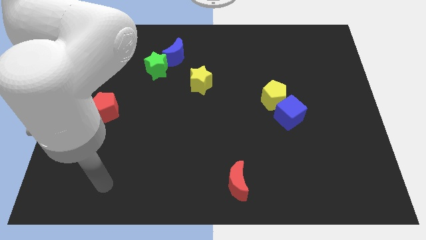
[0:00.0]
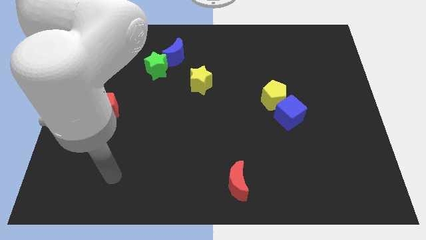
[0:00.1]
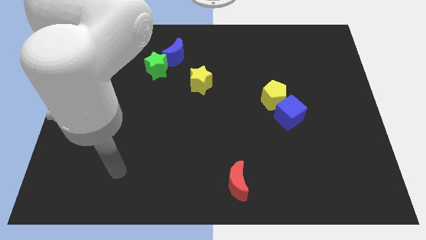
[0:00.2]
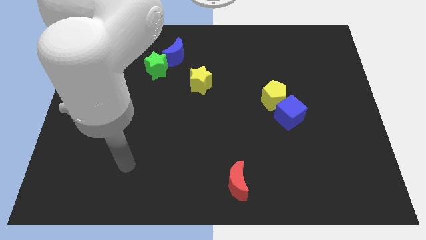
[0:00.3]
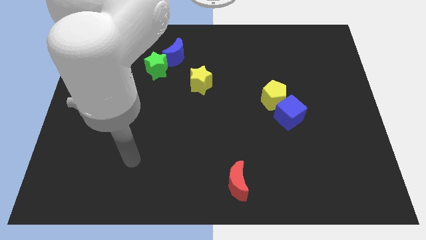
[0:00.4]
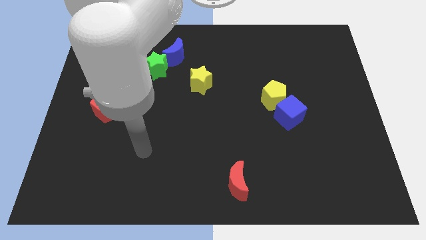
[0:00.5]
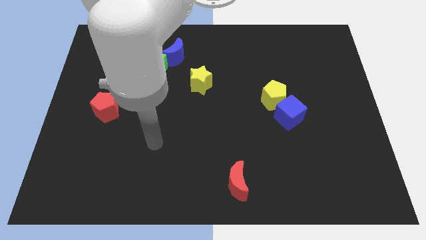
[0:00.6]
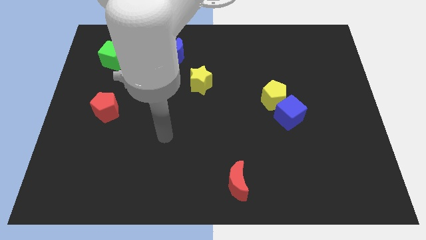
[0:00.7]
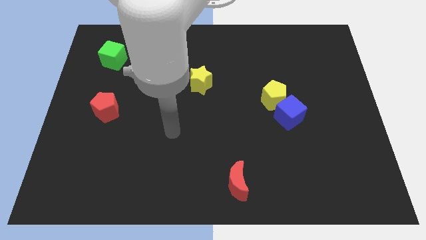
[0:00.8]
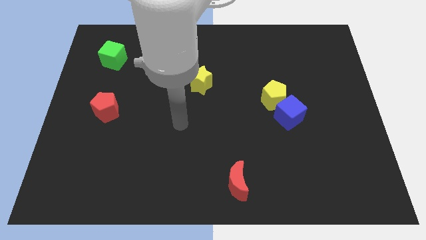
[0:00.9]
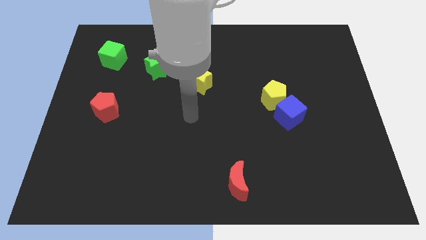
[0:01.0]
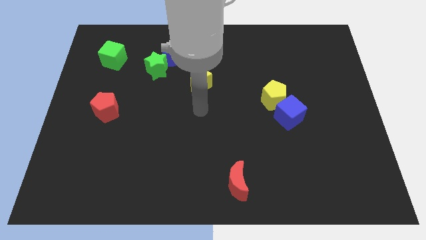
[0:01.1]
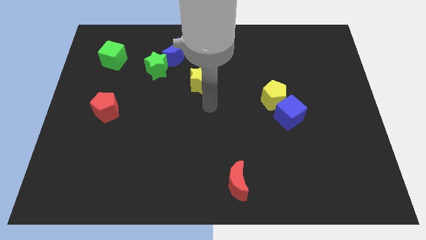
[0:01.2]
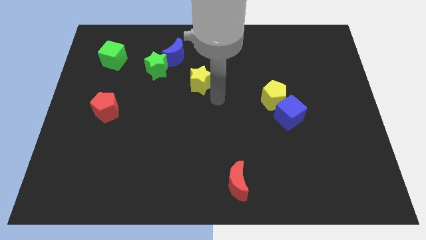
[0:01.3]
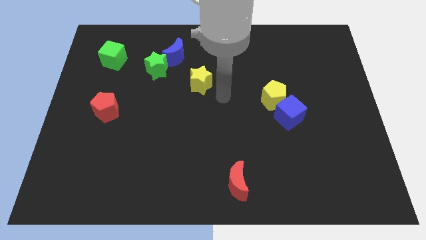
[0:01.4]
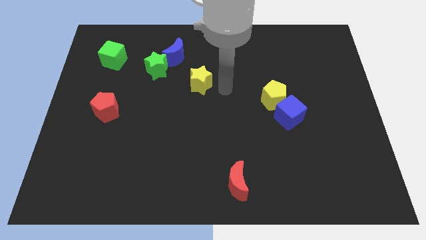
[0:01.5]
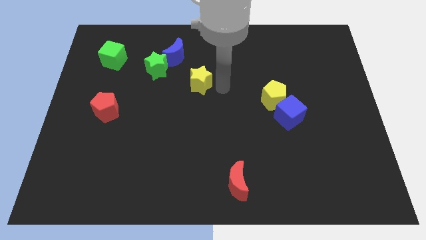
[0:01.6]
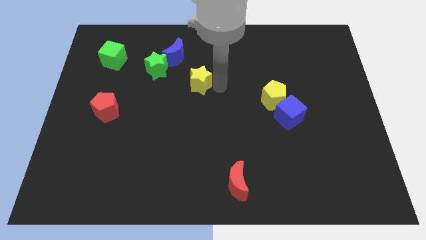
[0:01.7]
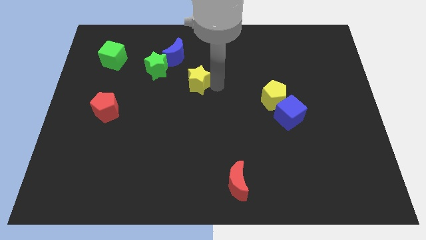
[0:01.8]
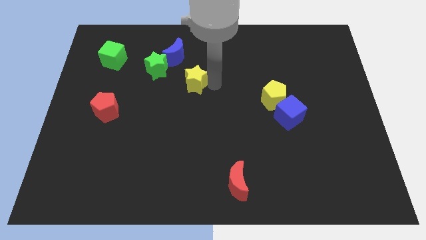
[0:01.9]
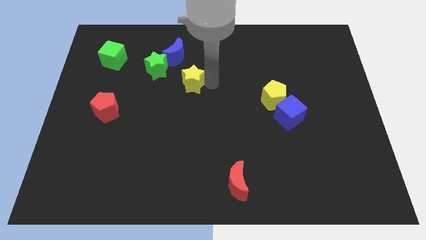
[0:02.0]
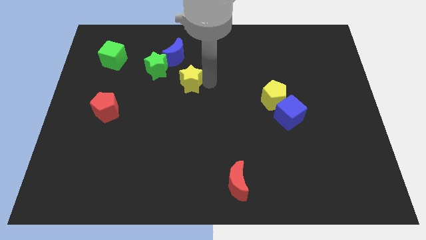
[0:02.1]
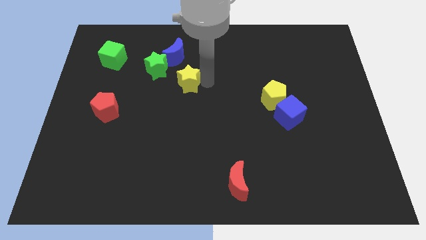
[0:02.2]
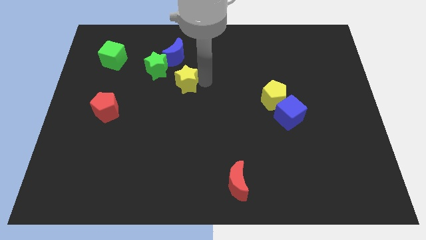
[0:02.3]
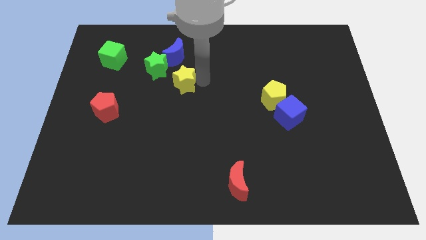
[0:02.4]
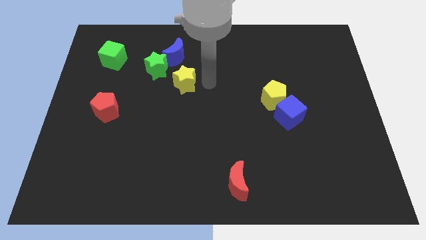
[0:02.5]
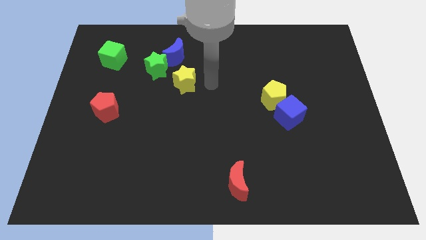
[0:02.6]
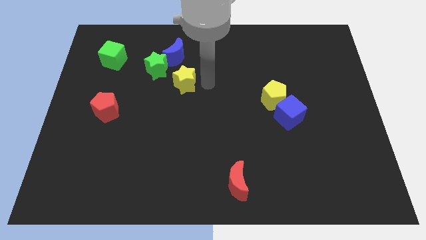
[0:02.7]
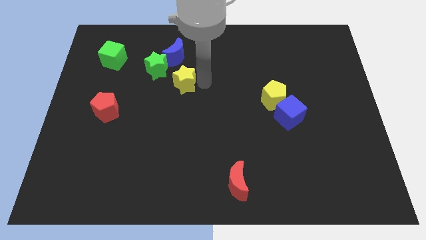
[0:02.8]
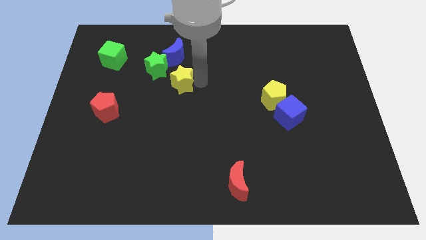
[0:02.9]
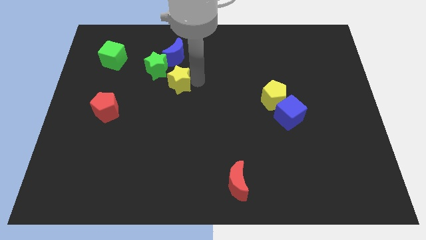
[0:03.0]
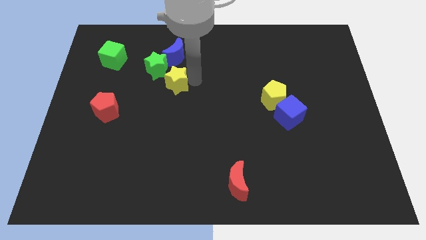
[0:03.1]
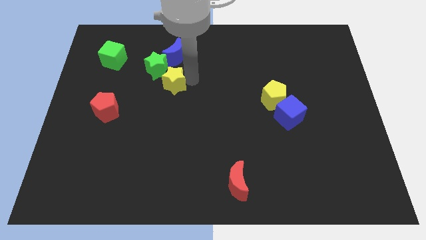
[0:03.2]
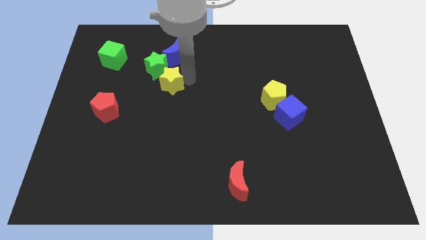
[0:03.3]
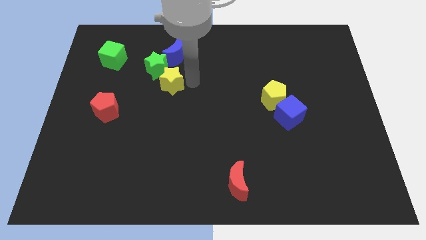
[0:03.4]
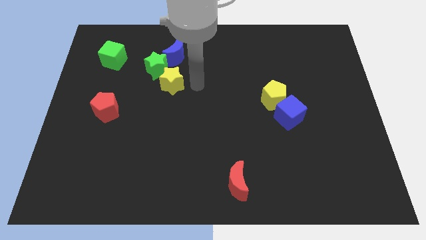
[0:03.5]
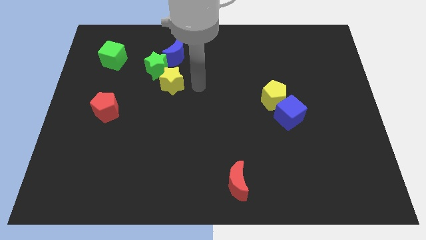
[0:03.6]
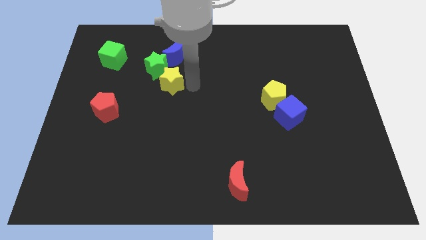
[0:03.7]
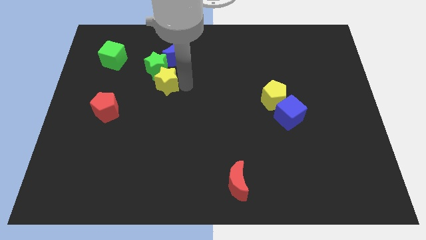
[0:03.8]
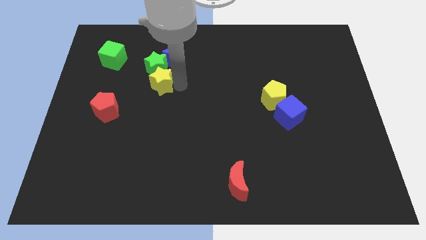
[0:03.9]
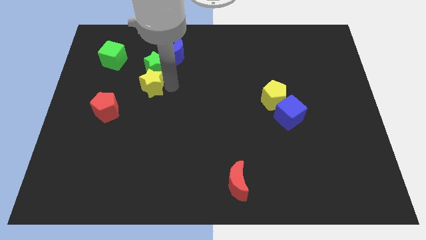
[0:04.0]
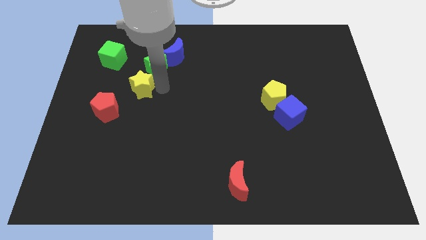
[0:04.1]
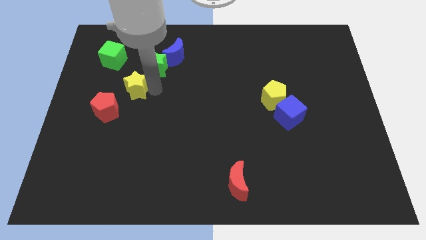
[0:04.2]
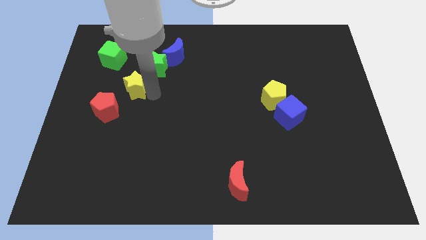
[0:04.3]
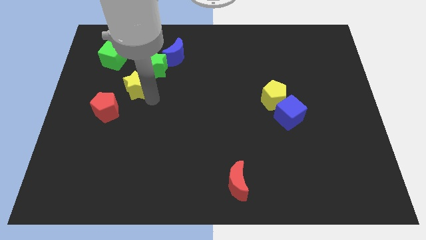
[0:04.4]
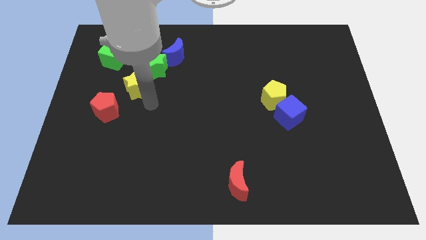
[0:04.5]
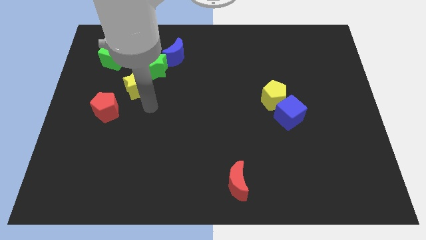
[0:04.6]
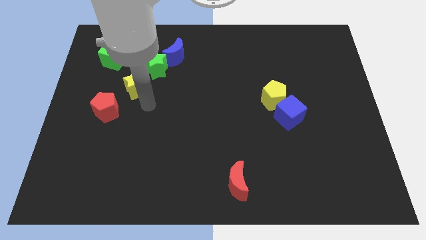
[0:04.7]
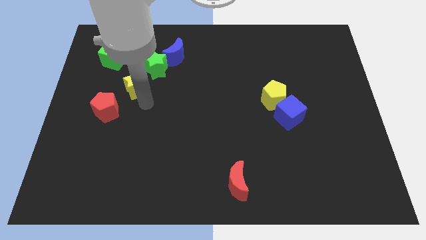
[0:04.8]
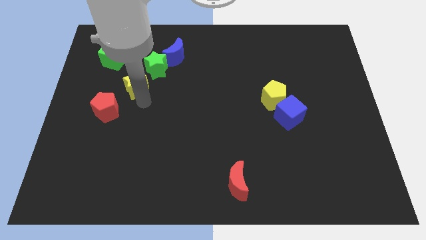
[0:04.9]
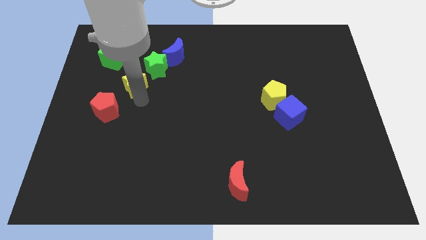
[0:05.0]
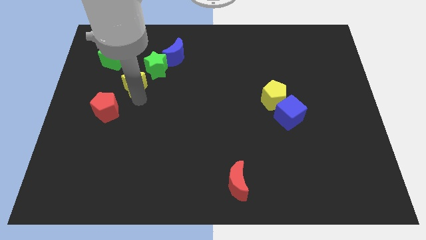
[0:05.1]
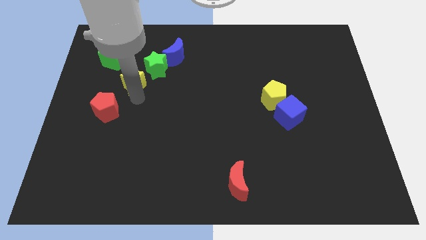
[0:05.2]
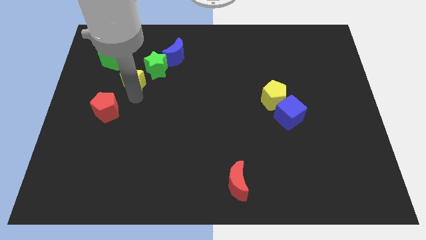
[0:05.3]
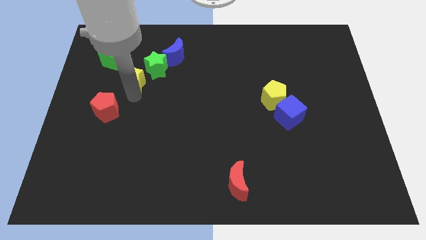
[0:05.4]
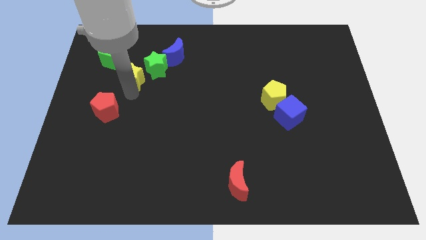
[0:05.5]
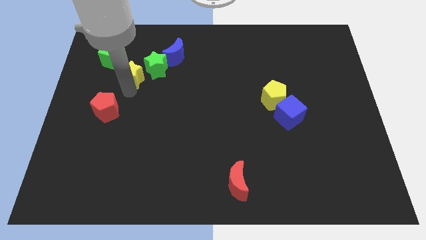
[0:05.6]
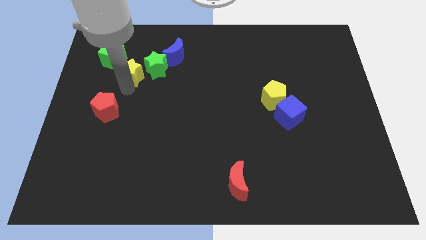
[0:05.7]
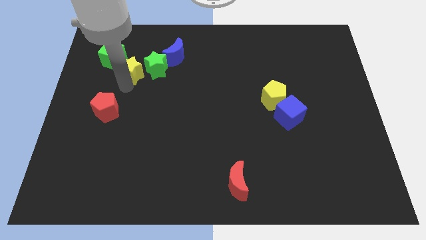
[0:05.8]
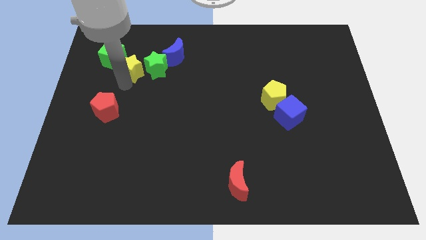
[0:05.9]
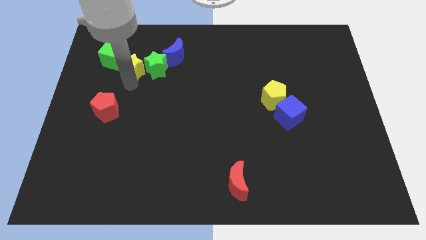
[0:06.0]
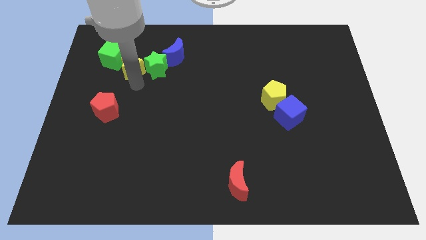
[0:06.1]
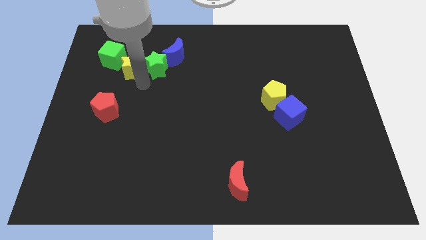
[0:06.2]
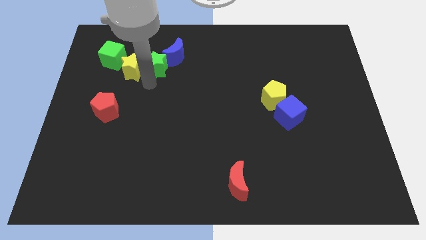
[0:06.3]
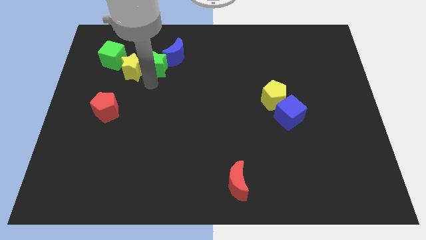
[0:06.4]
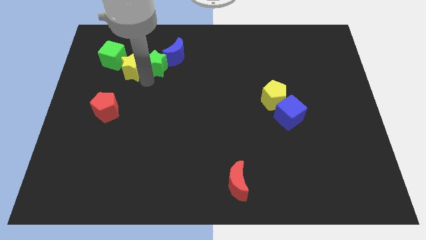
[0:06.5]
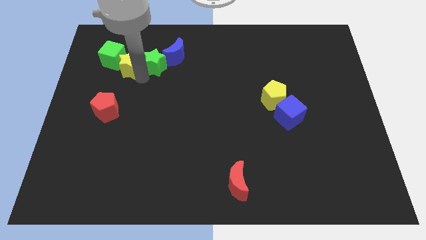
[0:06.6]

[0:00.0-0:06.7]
put the yellow star next to the green cube

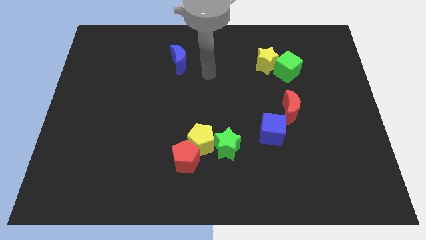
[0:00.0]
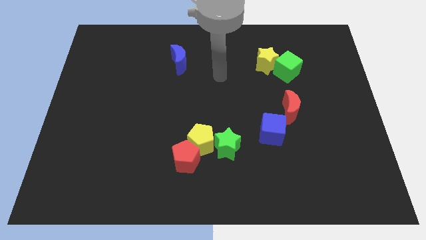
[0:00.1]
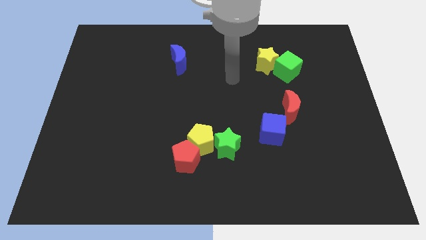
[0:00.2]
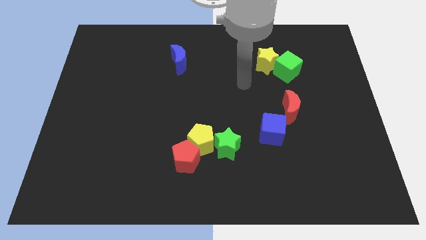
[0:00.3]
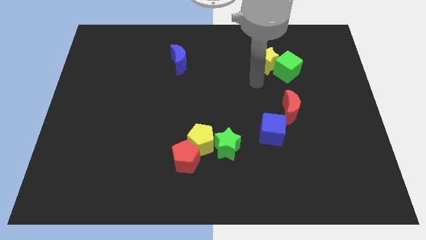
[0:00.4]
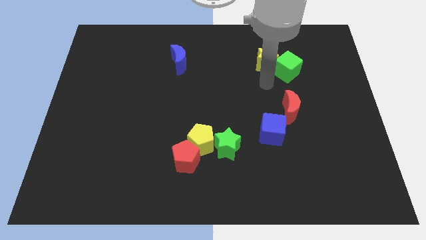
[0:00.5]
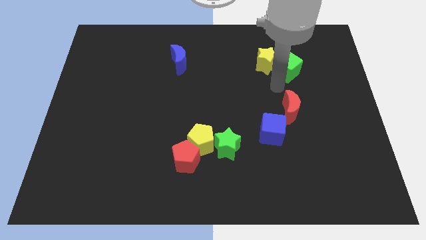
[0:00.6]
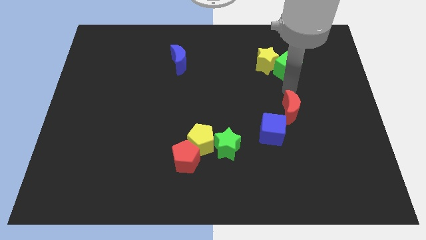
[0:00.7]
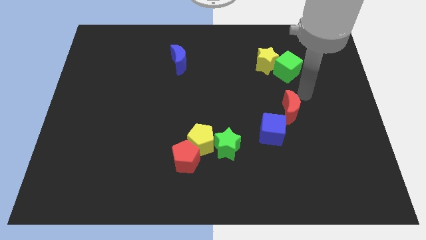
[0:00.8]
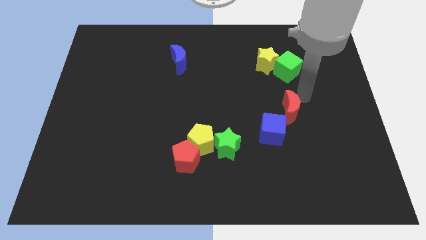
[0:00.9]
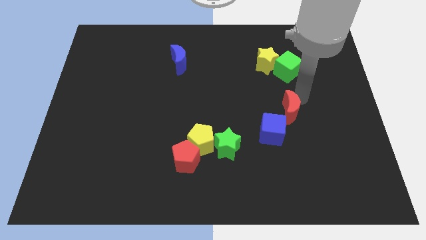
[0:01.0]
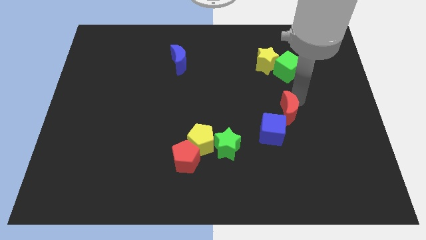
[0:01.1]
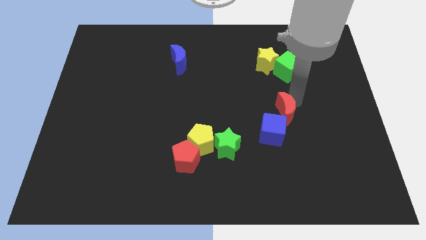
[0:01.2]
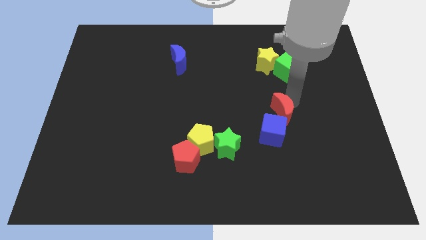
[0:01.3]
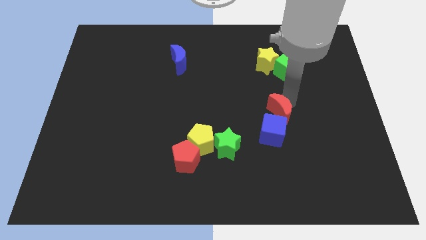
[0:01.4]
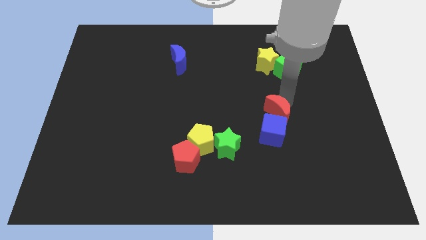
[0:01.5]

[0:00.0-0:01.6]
move the red moon close to the blue cube

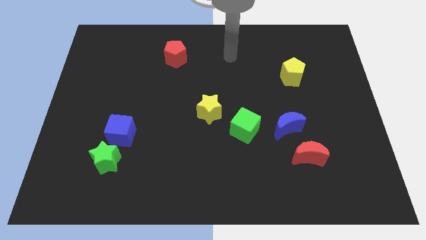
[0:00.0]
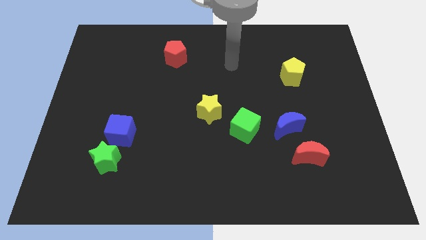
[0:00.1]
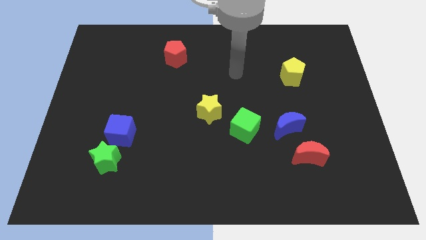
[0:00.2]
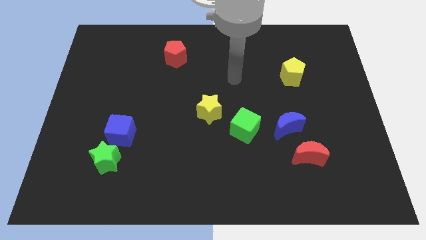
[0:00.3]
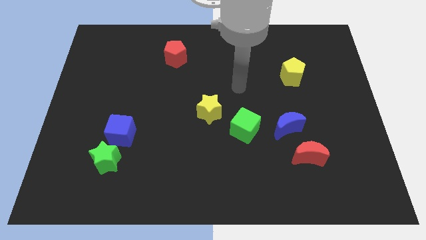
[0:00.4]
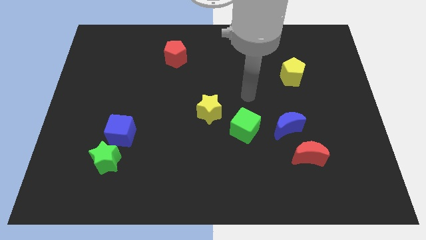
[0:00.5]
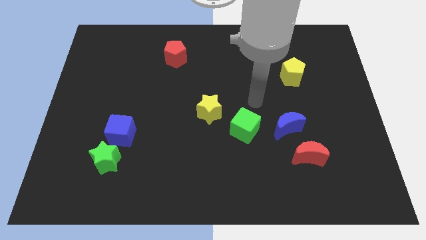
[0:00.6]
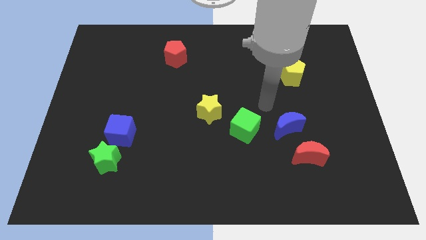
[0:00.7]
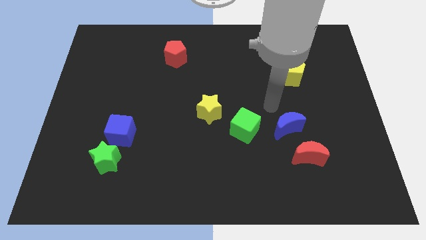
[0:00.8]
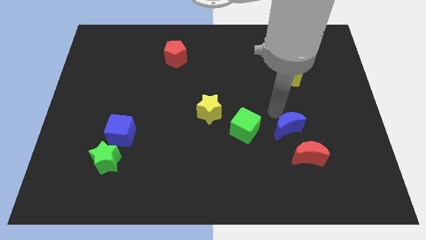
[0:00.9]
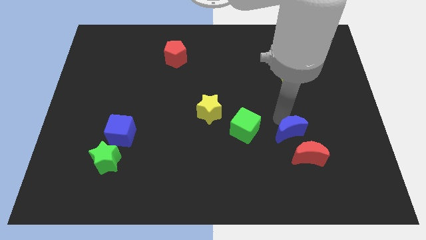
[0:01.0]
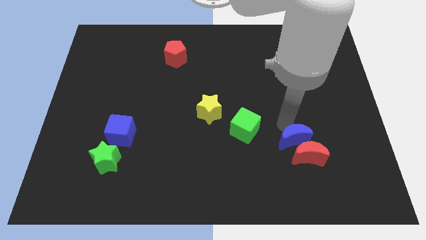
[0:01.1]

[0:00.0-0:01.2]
slide the blue moon close to the red moon
